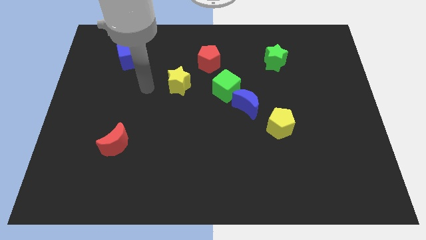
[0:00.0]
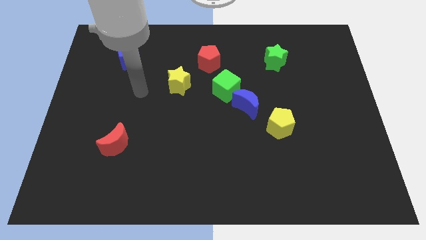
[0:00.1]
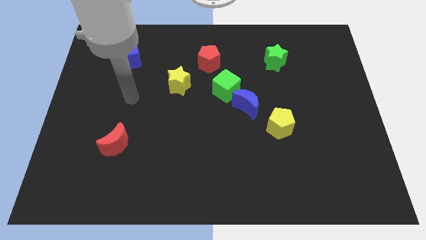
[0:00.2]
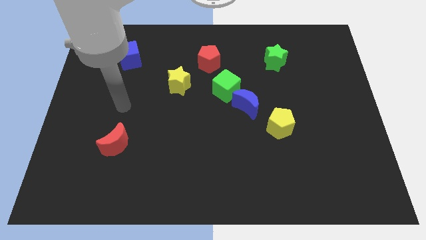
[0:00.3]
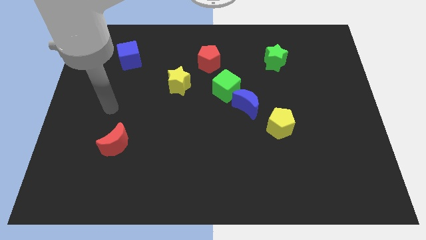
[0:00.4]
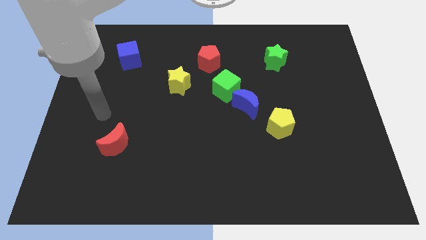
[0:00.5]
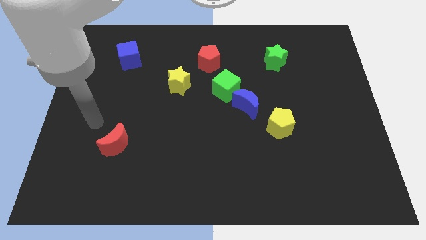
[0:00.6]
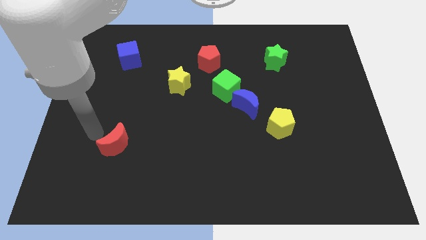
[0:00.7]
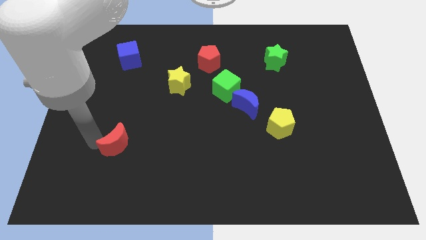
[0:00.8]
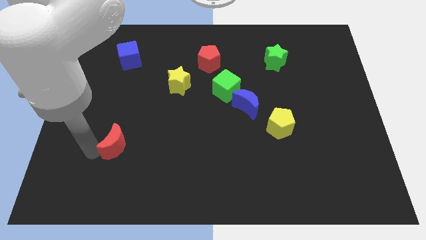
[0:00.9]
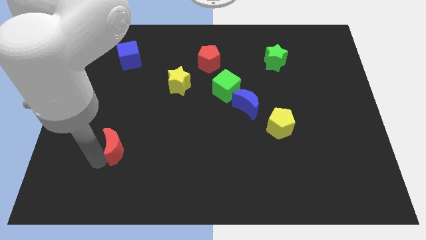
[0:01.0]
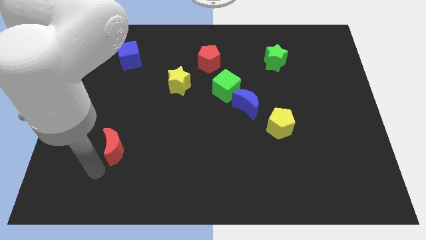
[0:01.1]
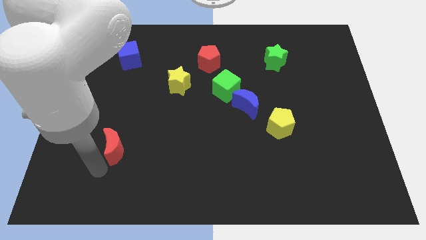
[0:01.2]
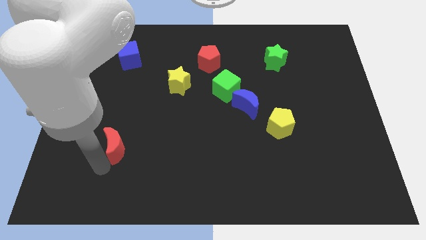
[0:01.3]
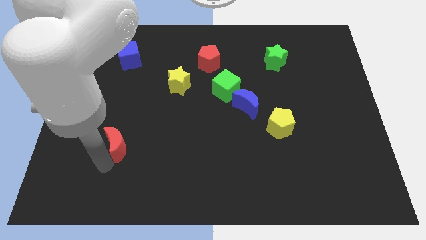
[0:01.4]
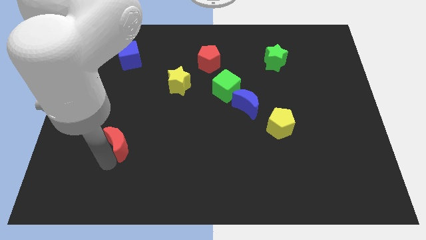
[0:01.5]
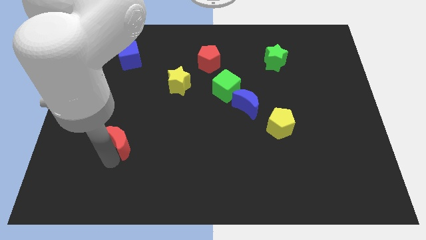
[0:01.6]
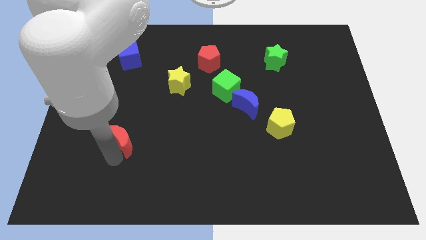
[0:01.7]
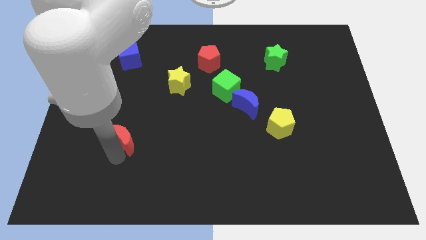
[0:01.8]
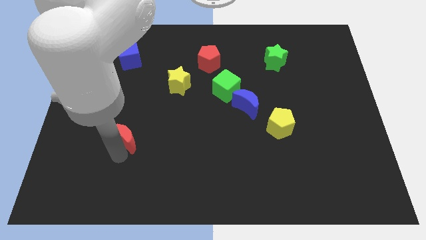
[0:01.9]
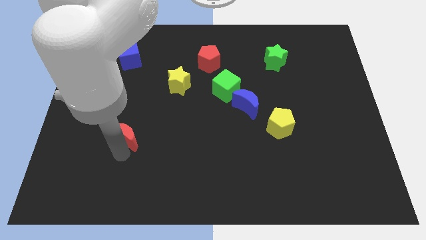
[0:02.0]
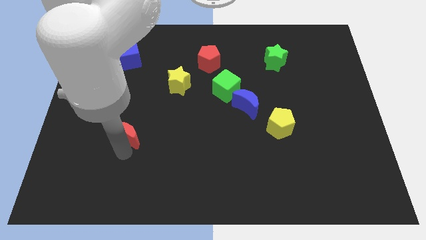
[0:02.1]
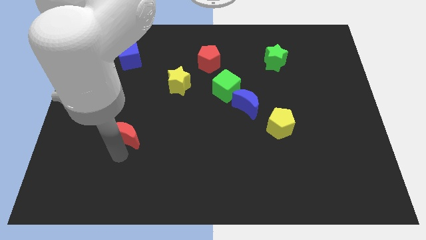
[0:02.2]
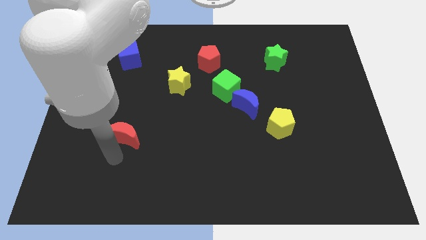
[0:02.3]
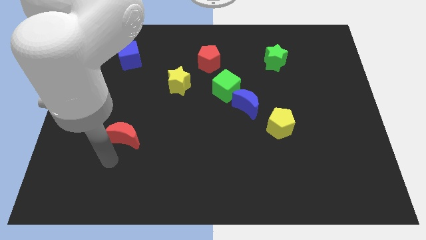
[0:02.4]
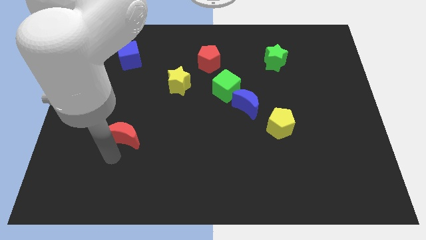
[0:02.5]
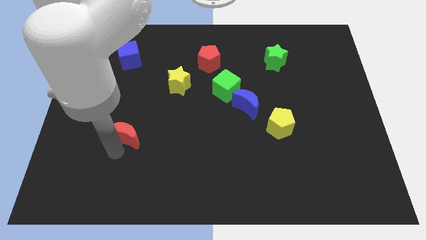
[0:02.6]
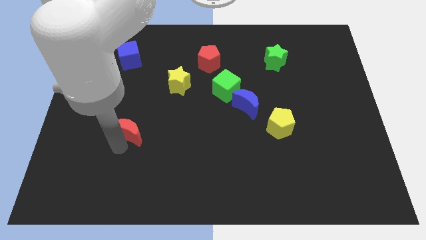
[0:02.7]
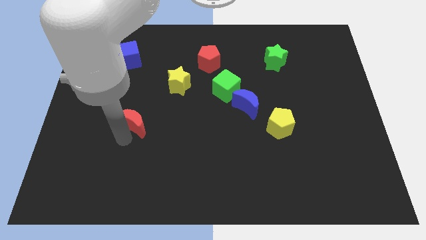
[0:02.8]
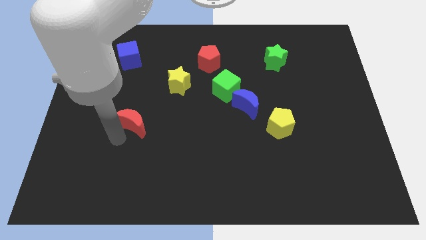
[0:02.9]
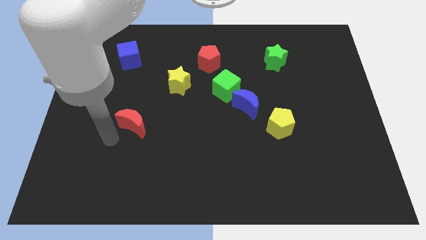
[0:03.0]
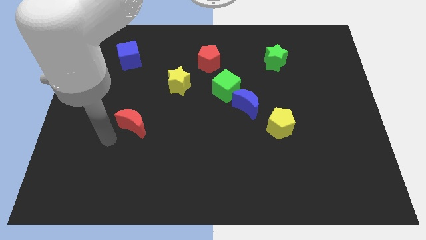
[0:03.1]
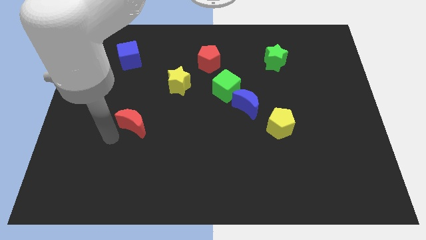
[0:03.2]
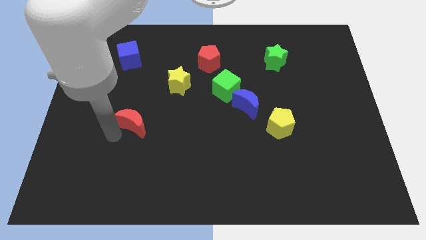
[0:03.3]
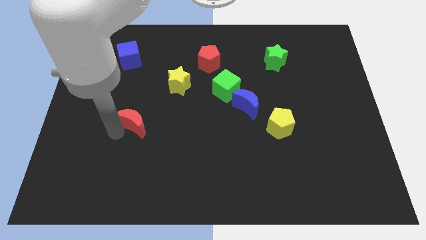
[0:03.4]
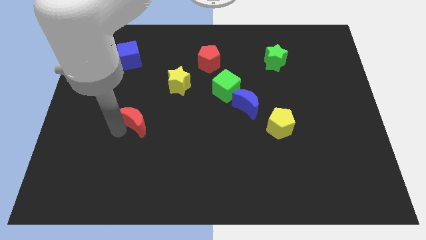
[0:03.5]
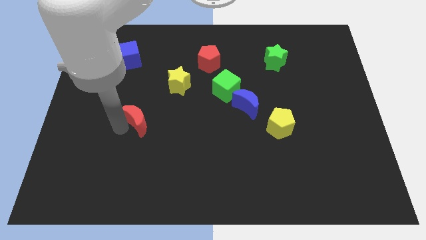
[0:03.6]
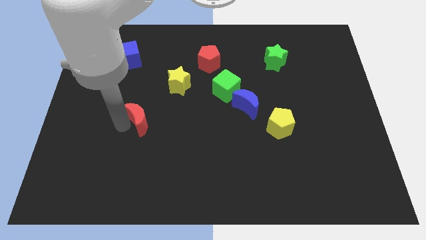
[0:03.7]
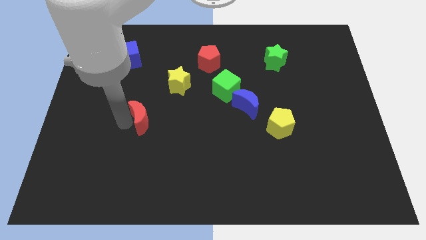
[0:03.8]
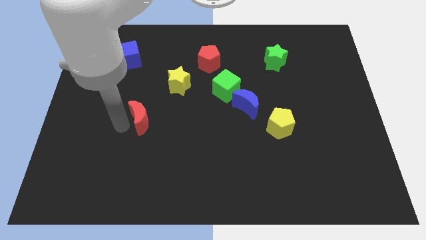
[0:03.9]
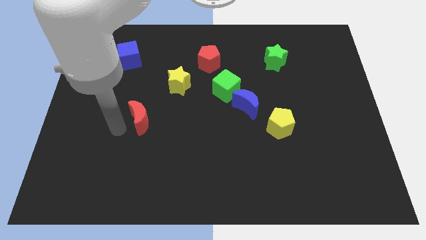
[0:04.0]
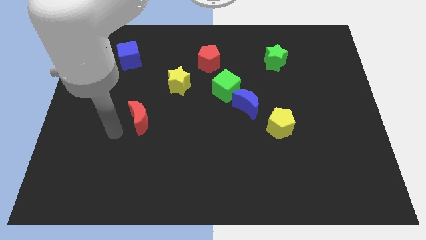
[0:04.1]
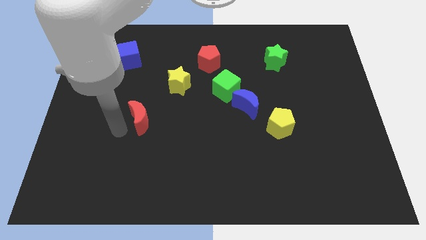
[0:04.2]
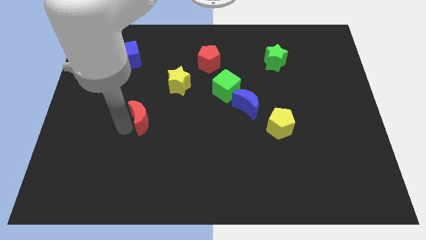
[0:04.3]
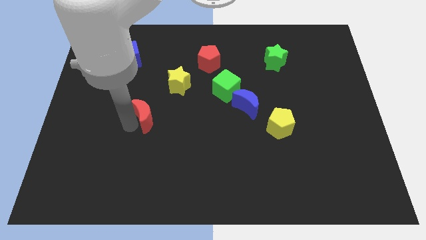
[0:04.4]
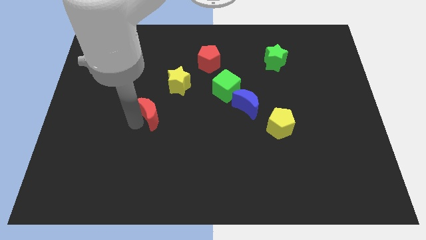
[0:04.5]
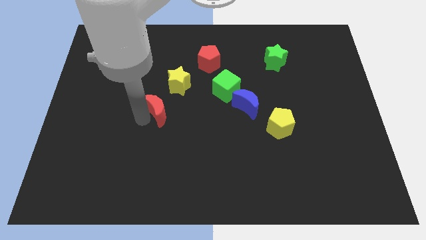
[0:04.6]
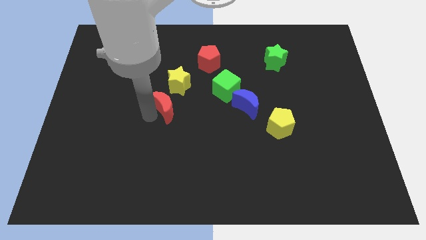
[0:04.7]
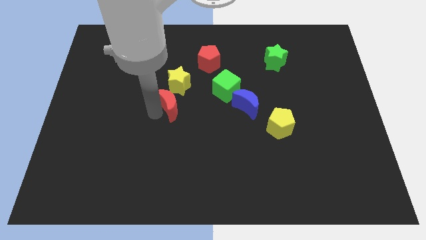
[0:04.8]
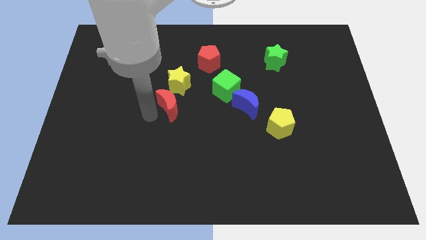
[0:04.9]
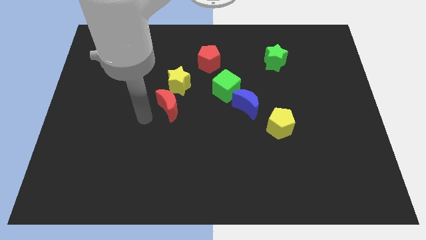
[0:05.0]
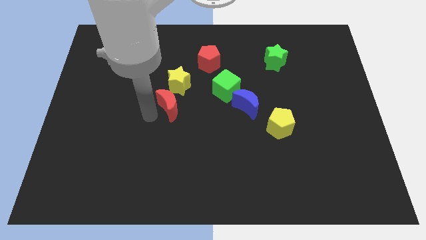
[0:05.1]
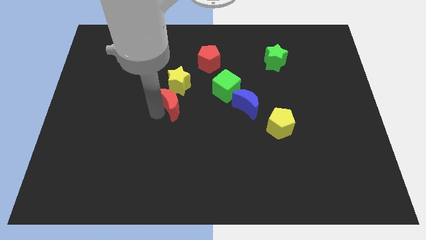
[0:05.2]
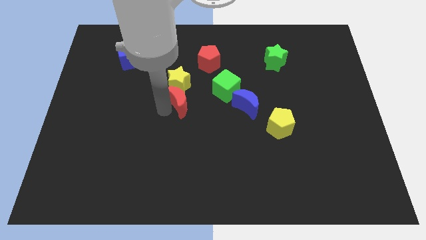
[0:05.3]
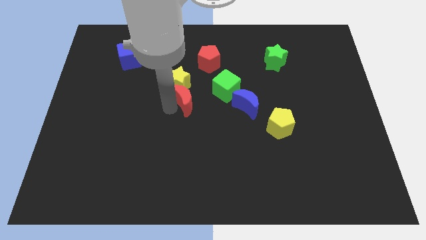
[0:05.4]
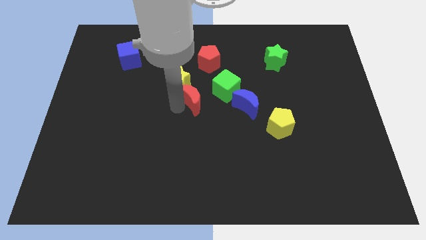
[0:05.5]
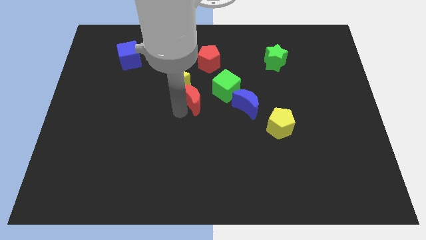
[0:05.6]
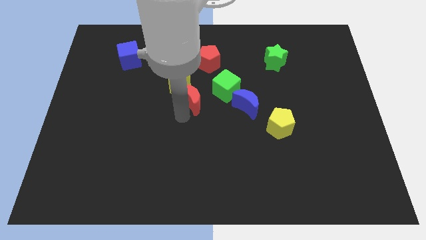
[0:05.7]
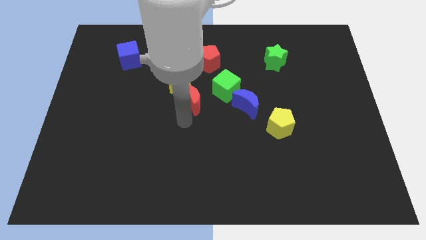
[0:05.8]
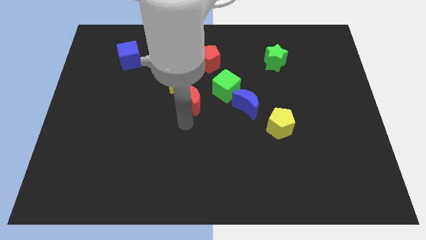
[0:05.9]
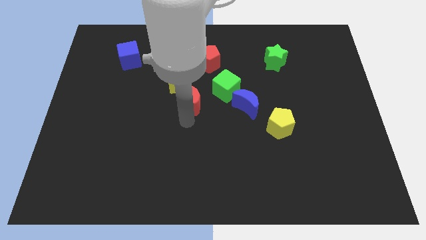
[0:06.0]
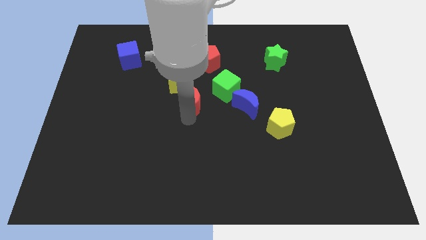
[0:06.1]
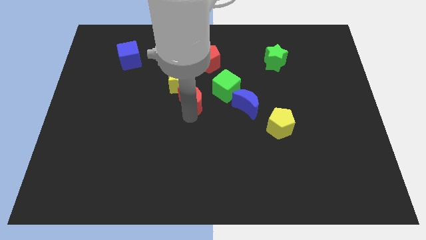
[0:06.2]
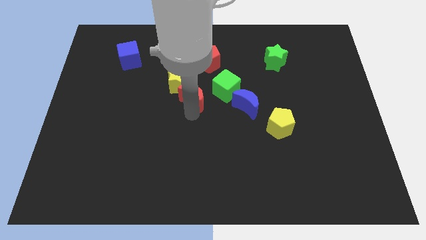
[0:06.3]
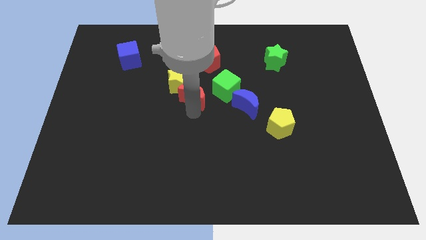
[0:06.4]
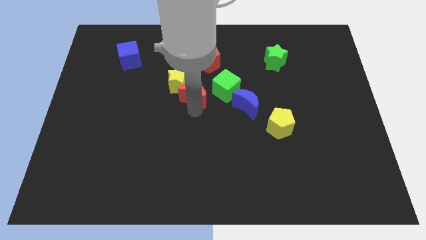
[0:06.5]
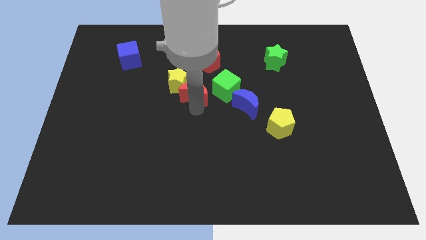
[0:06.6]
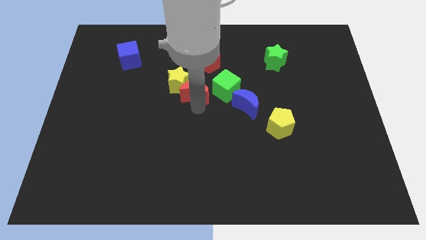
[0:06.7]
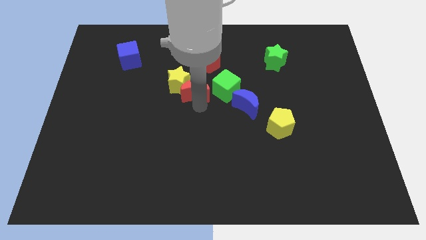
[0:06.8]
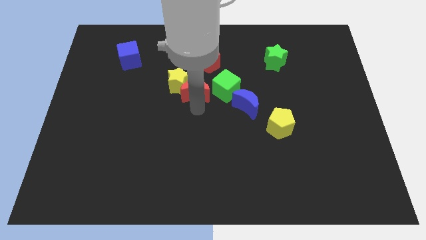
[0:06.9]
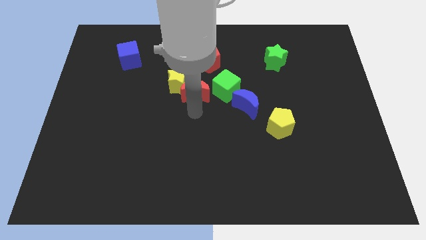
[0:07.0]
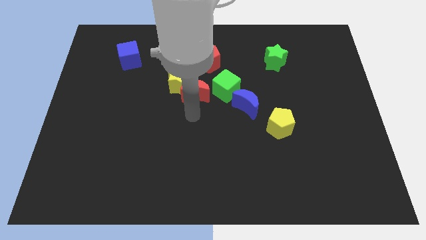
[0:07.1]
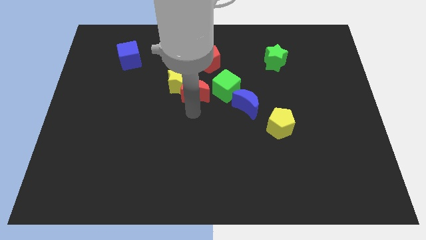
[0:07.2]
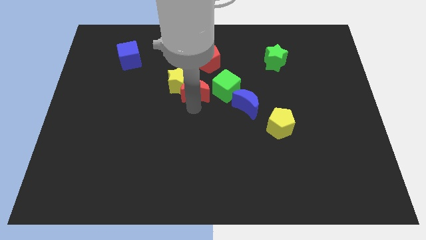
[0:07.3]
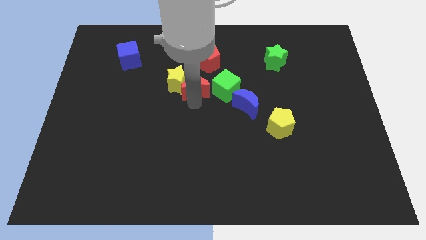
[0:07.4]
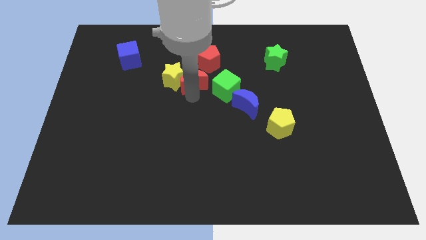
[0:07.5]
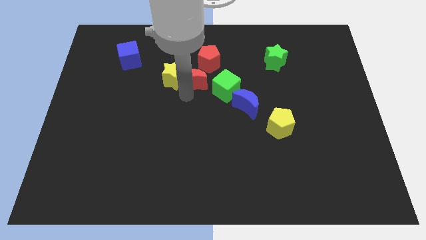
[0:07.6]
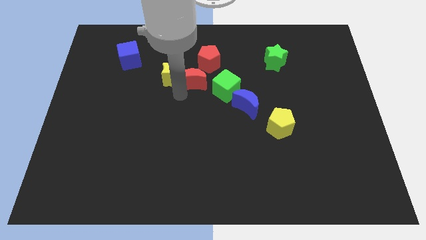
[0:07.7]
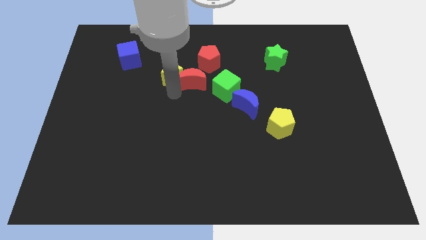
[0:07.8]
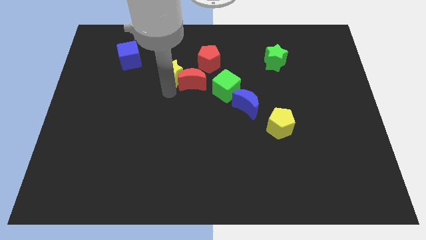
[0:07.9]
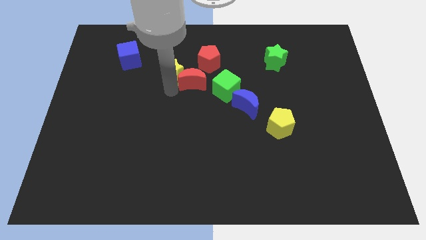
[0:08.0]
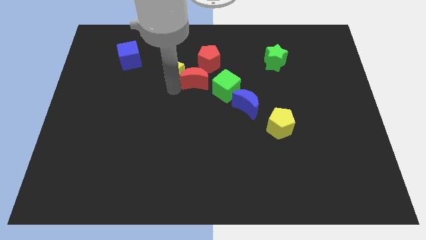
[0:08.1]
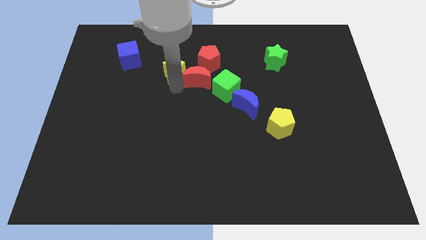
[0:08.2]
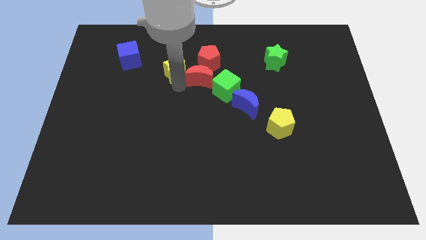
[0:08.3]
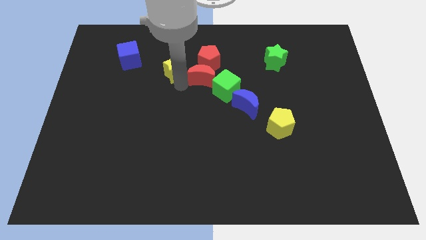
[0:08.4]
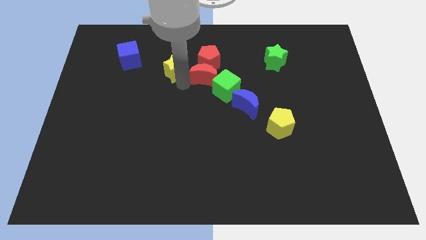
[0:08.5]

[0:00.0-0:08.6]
move the red moon diagonally down and to the right of the red pentagon
